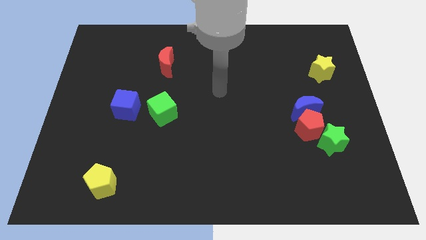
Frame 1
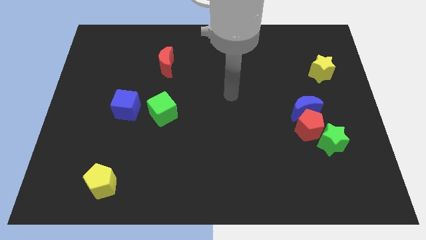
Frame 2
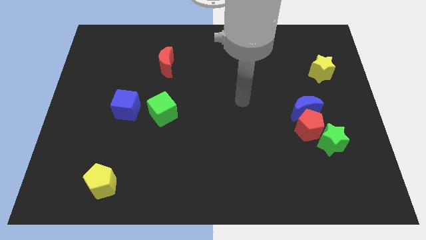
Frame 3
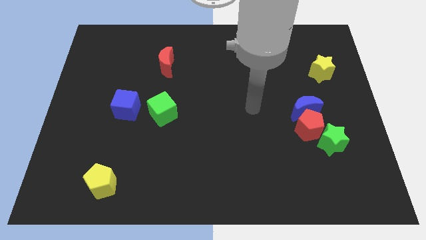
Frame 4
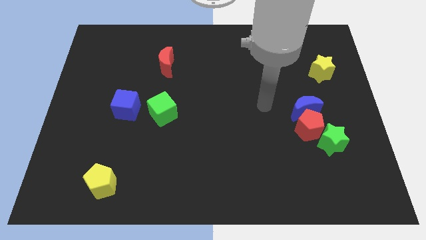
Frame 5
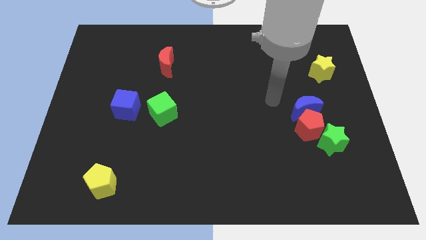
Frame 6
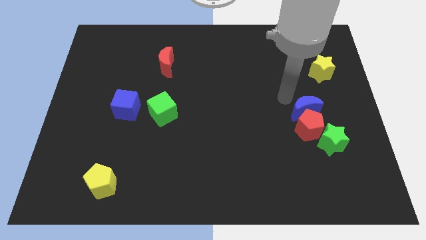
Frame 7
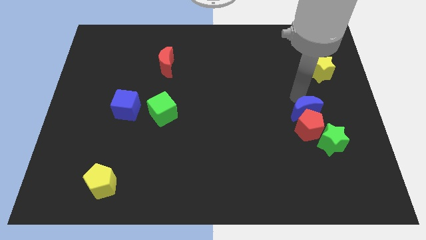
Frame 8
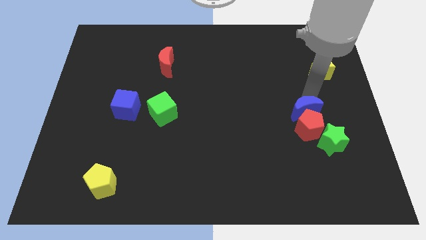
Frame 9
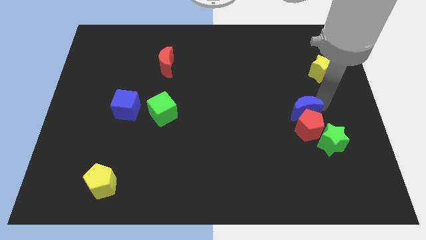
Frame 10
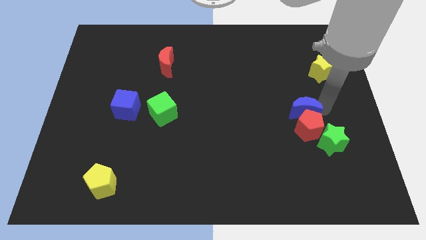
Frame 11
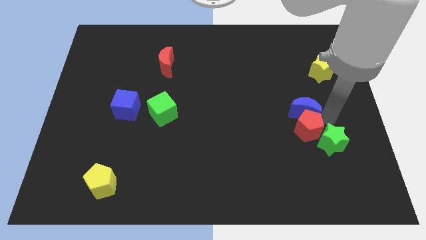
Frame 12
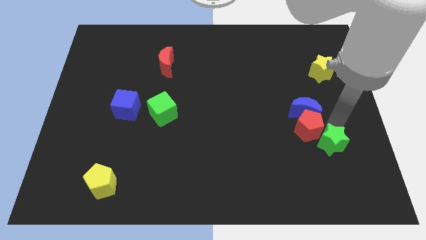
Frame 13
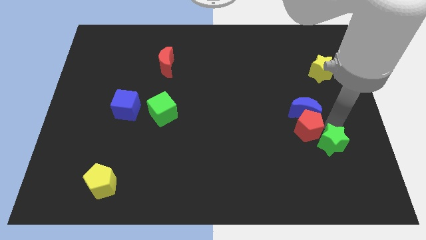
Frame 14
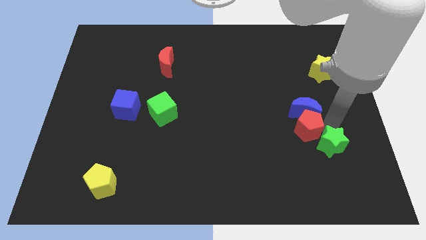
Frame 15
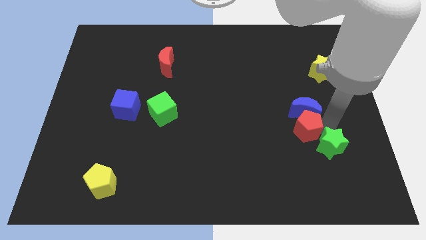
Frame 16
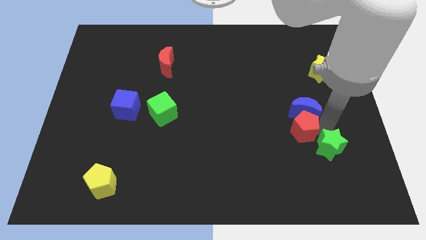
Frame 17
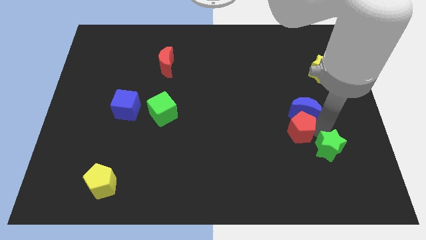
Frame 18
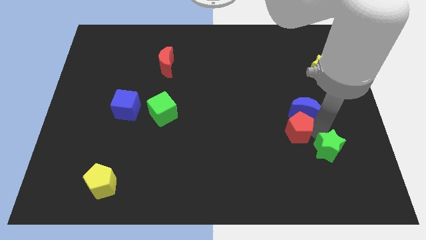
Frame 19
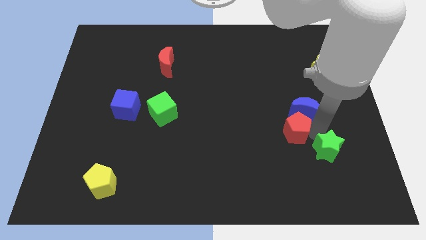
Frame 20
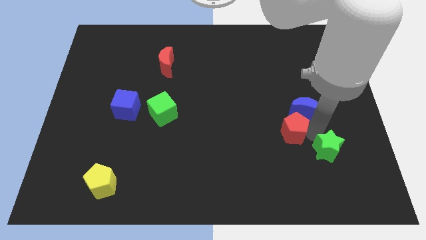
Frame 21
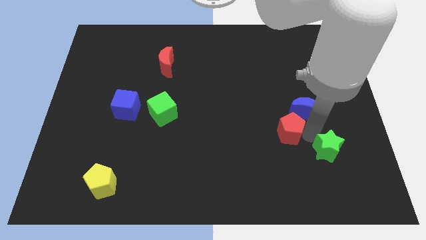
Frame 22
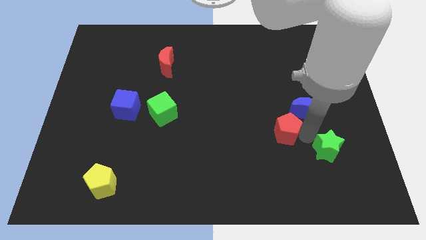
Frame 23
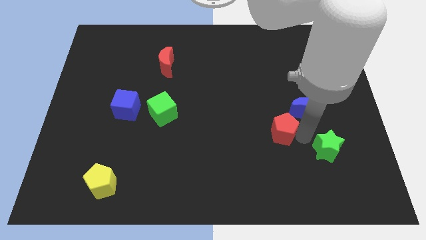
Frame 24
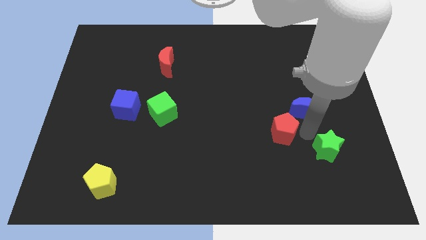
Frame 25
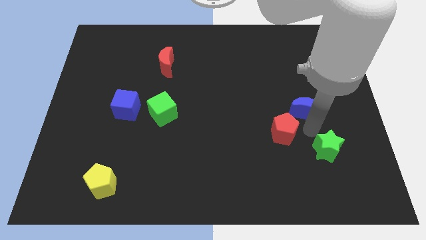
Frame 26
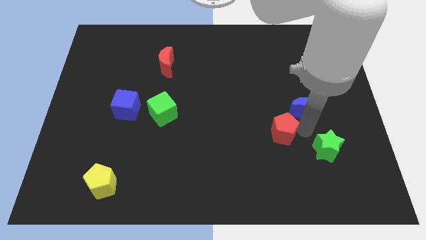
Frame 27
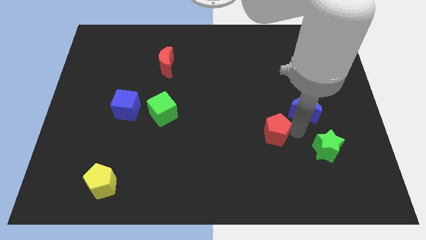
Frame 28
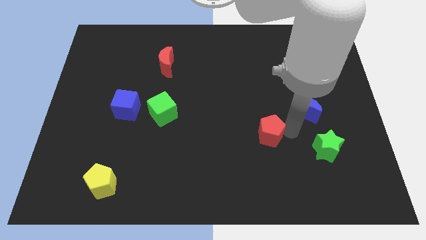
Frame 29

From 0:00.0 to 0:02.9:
pull the red pentagon apart from the blue moon and green star

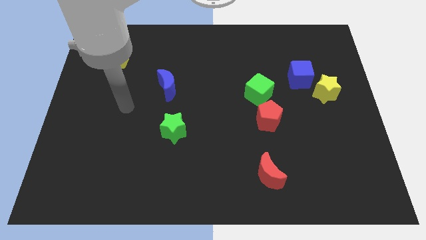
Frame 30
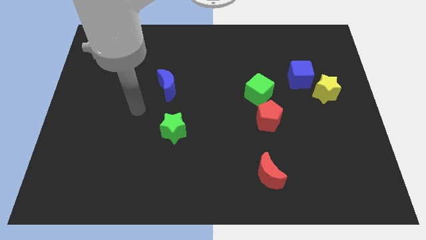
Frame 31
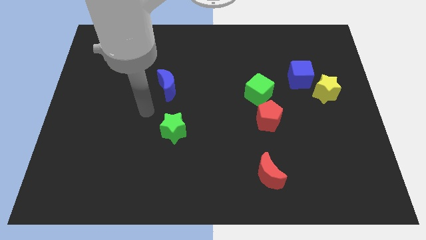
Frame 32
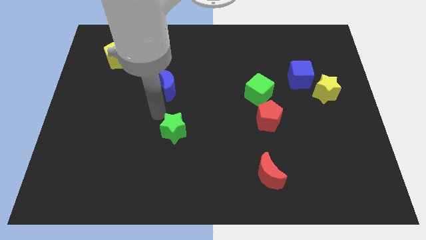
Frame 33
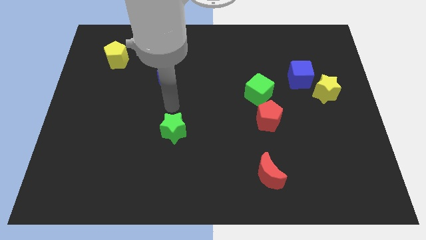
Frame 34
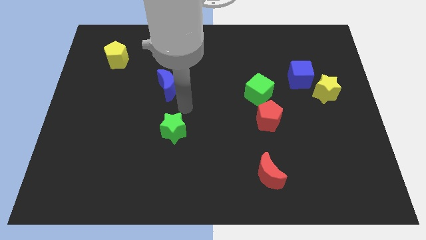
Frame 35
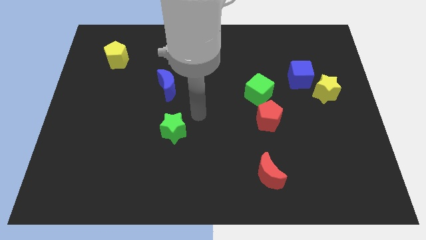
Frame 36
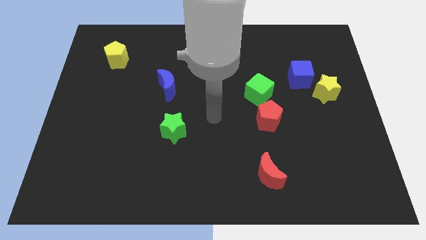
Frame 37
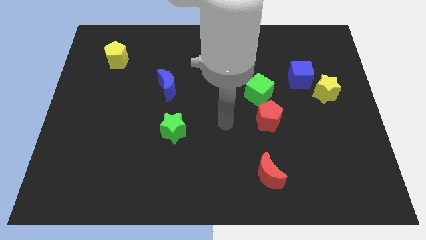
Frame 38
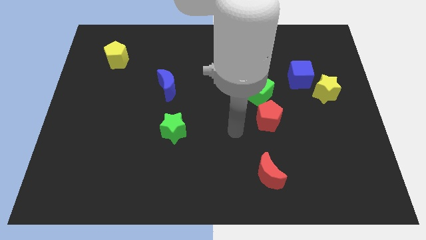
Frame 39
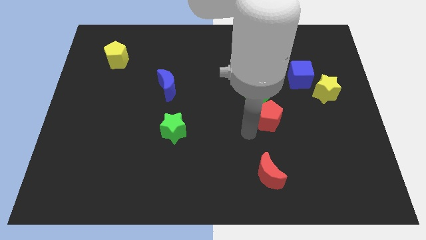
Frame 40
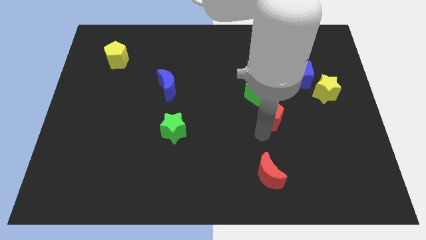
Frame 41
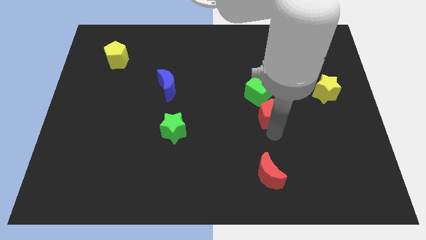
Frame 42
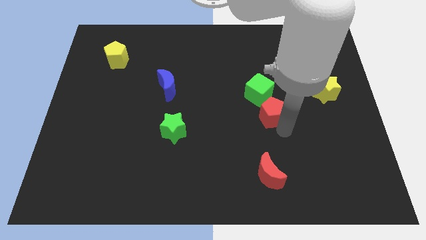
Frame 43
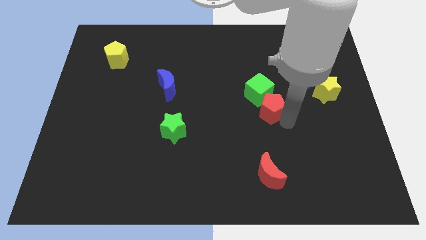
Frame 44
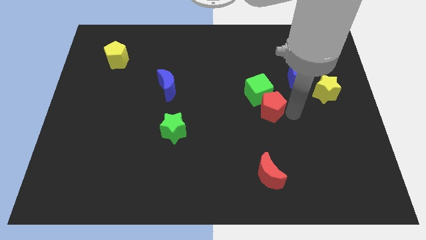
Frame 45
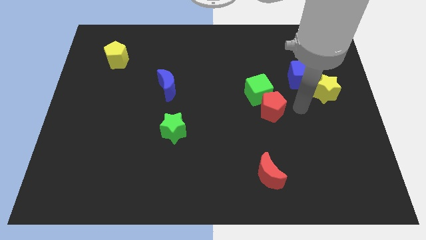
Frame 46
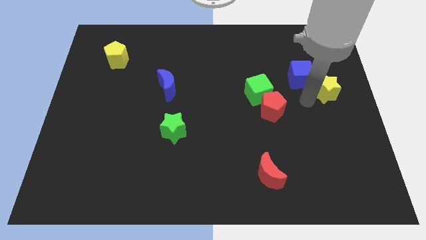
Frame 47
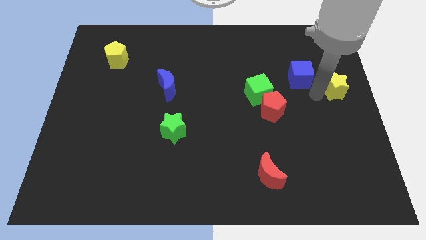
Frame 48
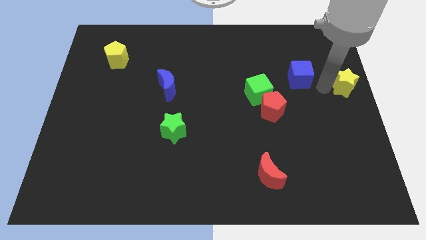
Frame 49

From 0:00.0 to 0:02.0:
separate the blue cube from the yellow star

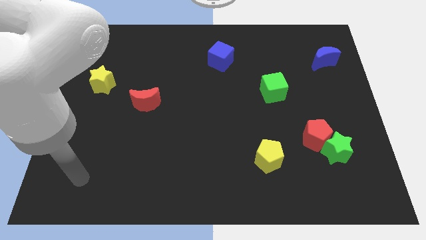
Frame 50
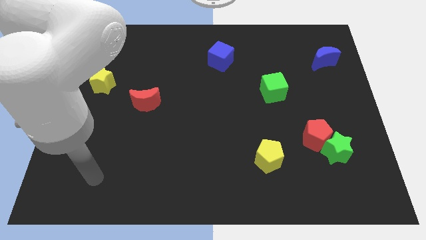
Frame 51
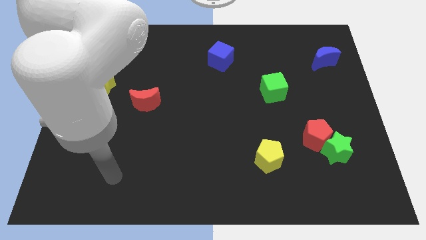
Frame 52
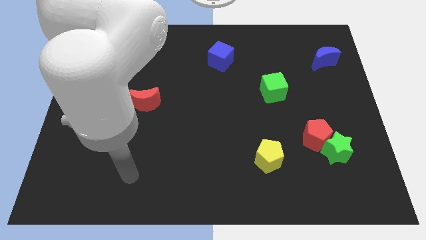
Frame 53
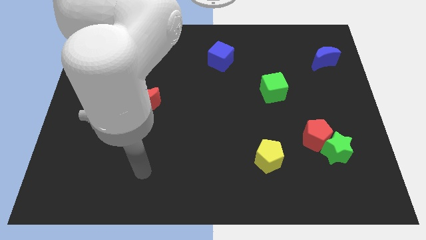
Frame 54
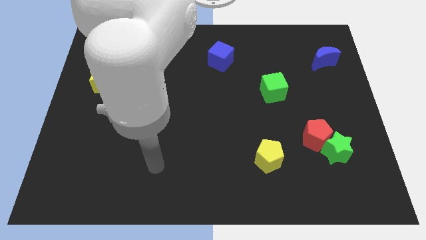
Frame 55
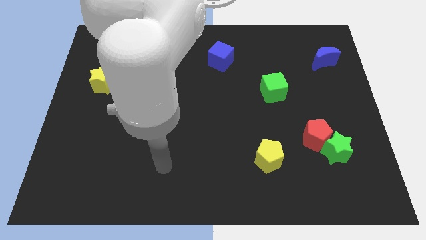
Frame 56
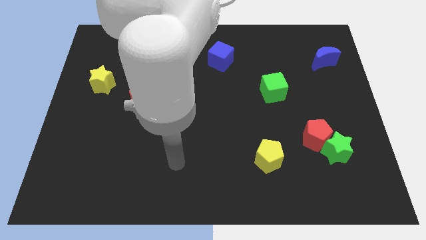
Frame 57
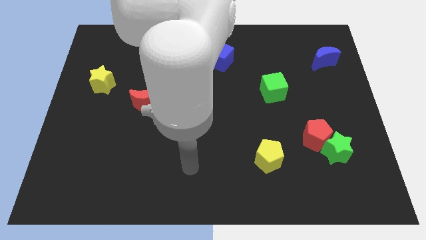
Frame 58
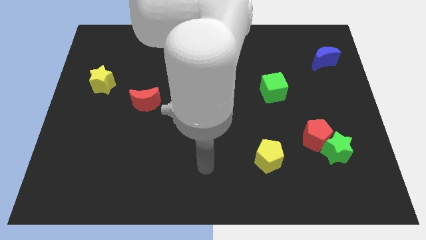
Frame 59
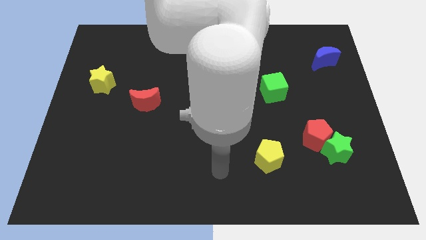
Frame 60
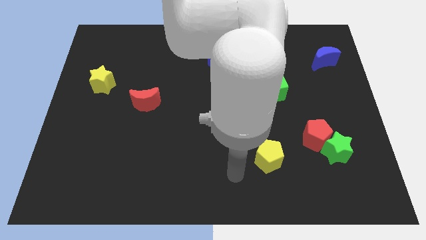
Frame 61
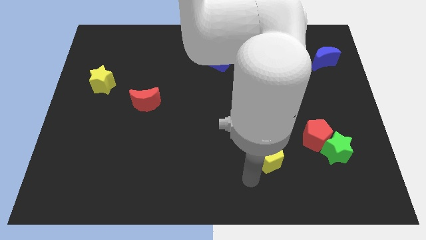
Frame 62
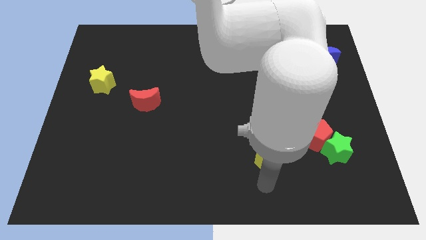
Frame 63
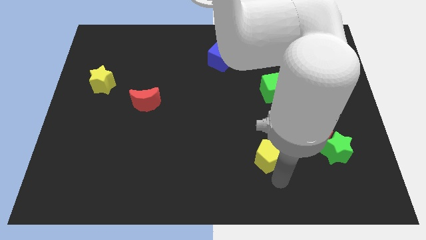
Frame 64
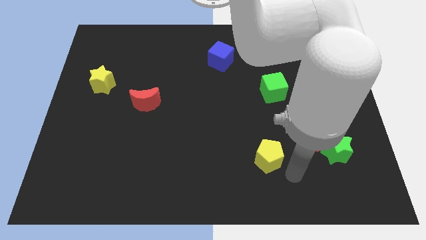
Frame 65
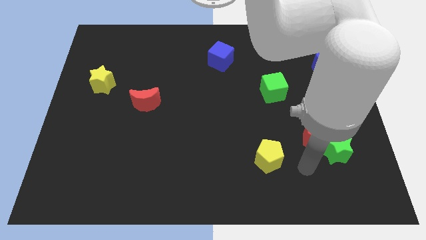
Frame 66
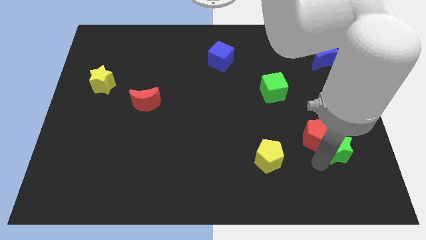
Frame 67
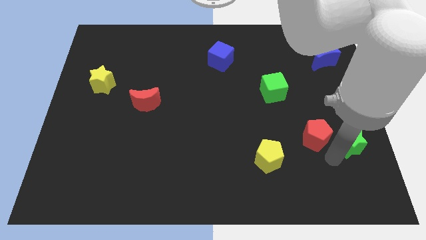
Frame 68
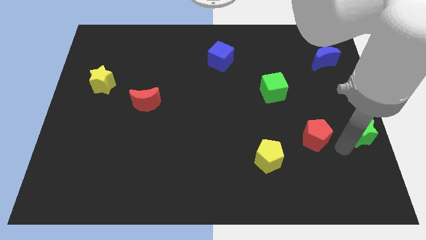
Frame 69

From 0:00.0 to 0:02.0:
separate the red pentagon from the green star

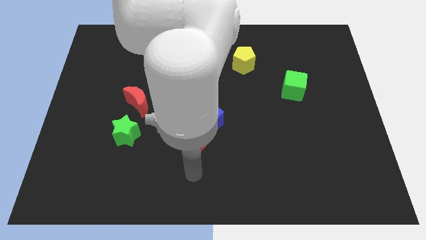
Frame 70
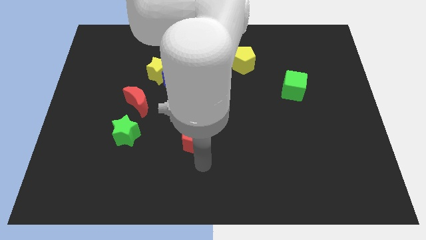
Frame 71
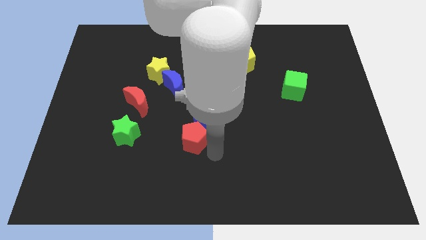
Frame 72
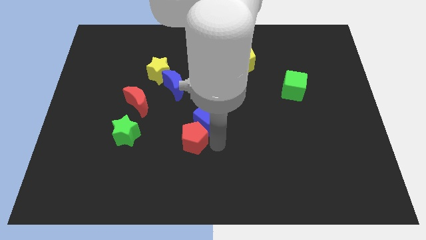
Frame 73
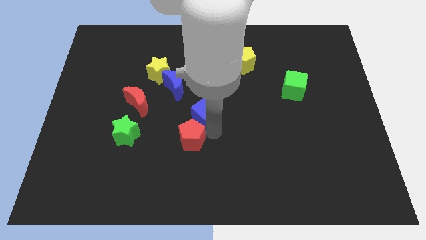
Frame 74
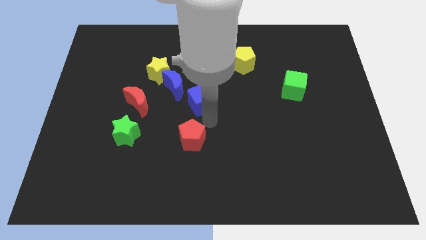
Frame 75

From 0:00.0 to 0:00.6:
move the red pentagon away from the blue cube

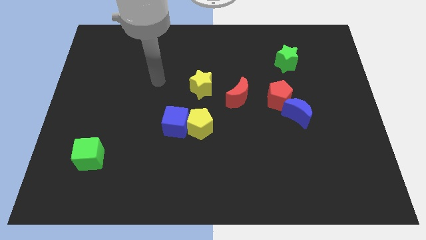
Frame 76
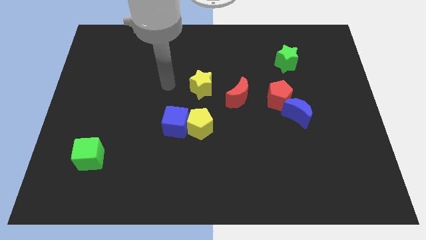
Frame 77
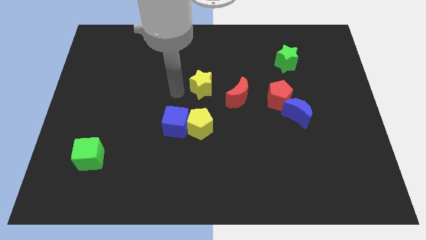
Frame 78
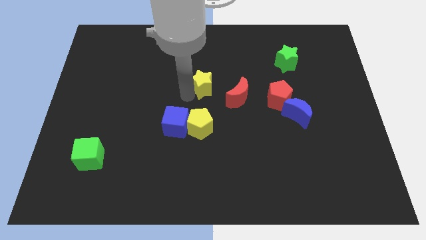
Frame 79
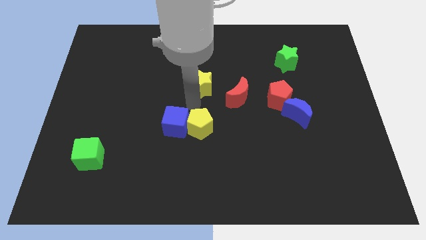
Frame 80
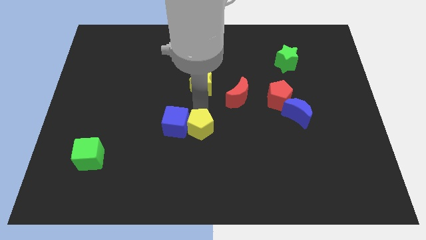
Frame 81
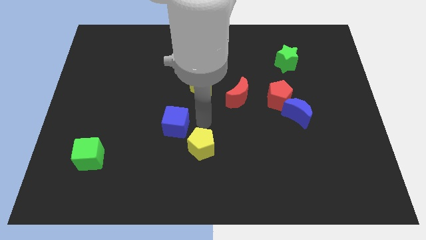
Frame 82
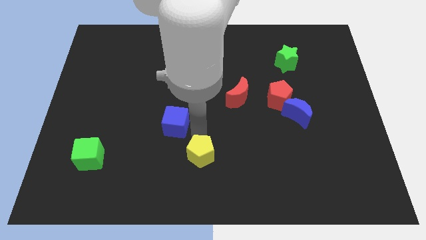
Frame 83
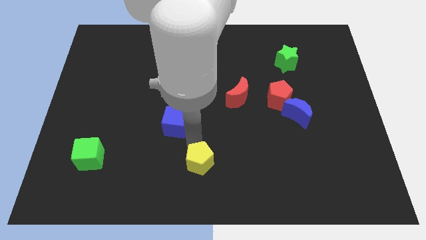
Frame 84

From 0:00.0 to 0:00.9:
pull the blue cube apart from the yellow pentagon

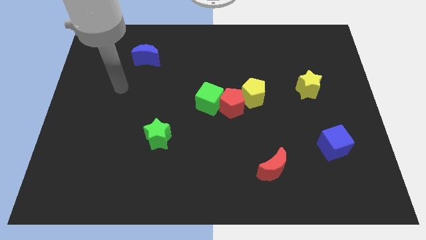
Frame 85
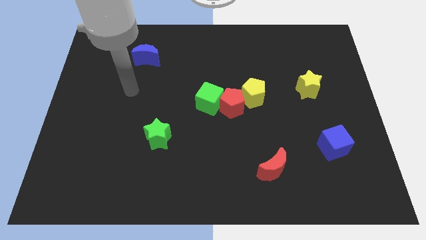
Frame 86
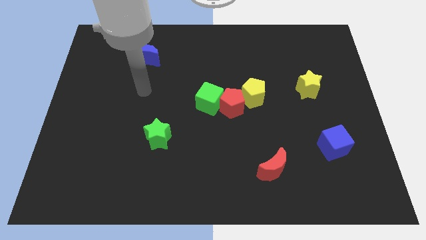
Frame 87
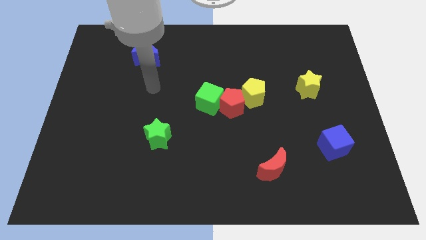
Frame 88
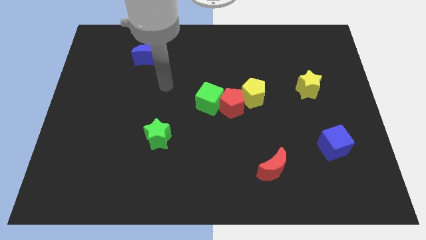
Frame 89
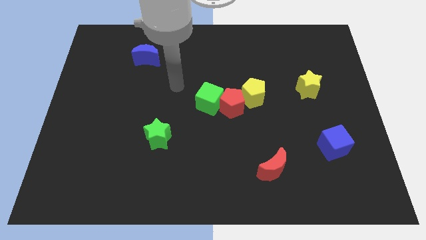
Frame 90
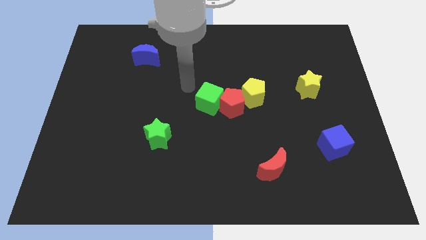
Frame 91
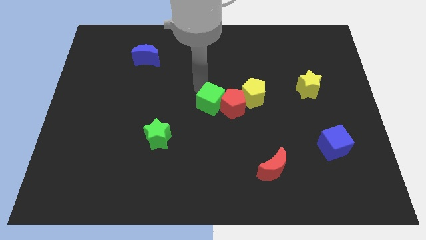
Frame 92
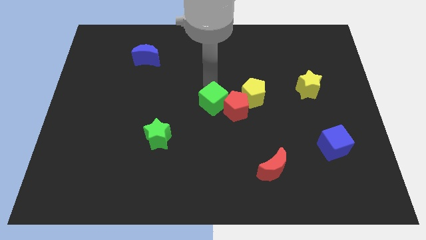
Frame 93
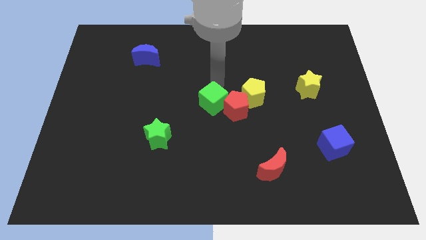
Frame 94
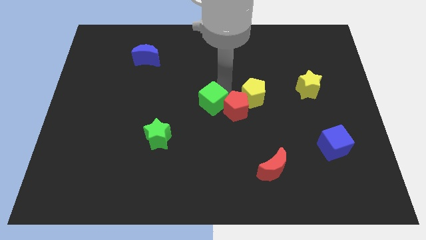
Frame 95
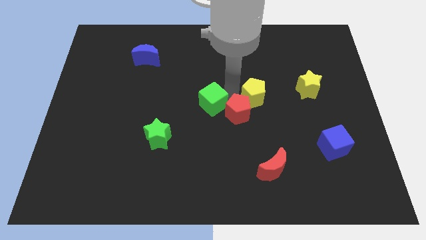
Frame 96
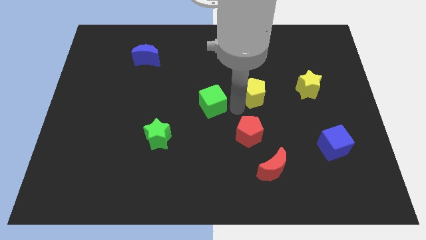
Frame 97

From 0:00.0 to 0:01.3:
separate the green cube from the red pentagon
